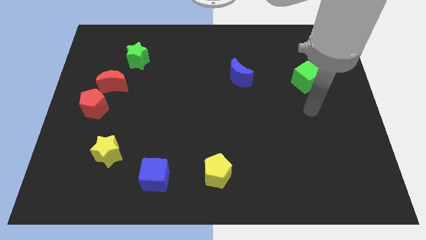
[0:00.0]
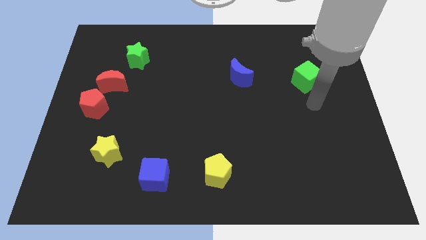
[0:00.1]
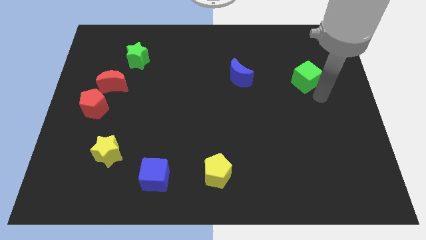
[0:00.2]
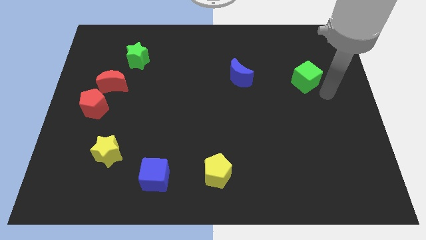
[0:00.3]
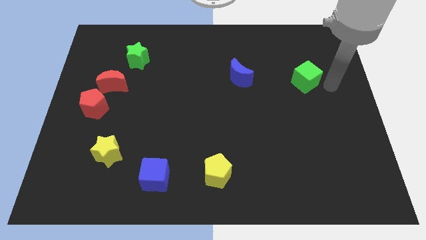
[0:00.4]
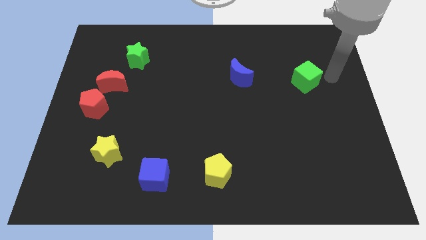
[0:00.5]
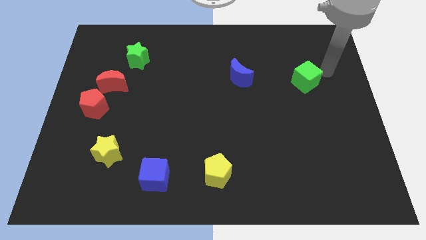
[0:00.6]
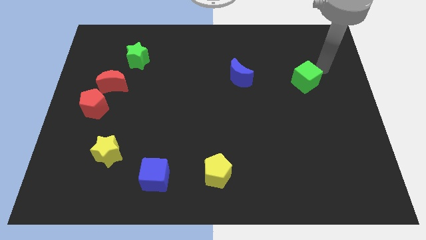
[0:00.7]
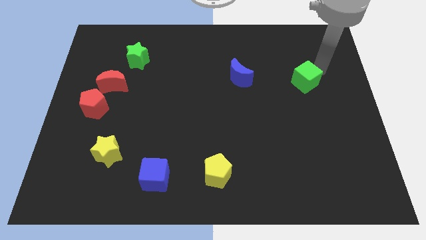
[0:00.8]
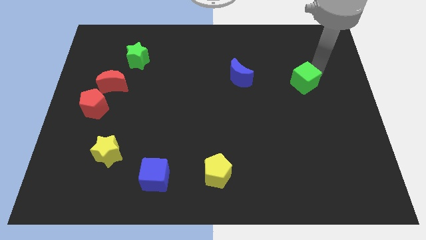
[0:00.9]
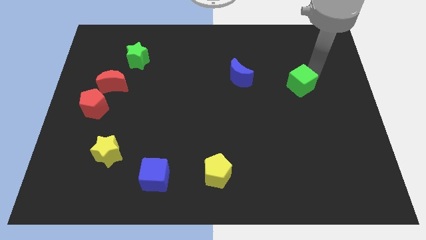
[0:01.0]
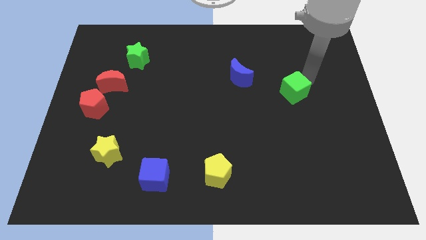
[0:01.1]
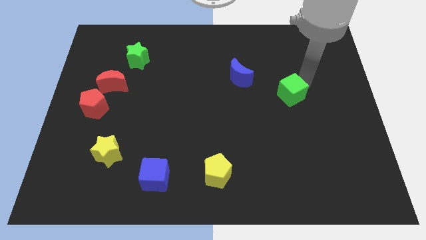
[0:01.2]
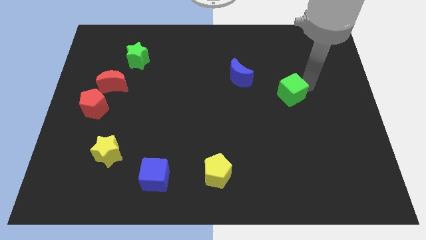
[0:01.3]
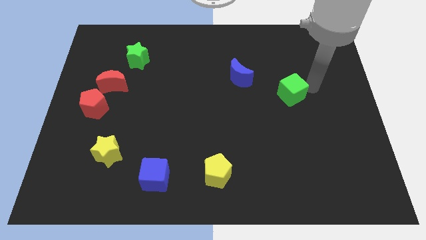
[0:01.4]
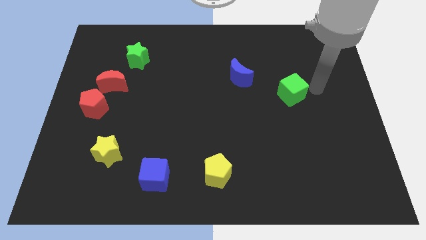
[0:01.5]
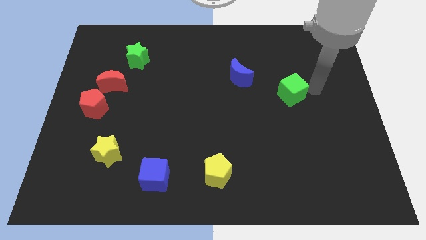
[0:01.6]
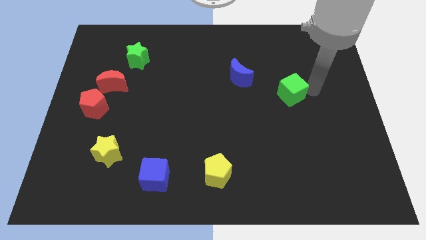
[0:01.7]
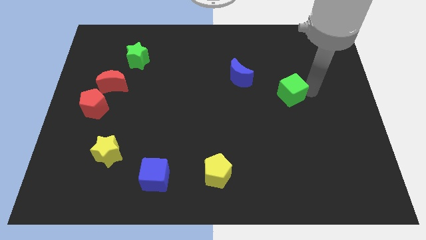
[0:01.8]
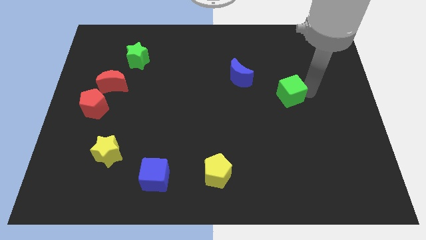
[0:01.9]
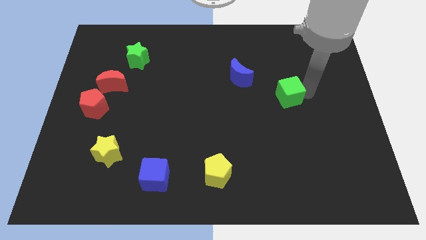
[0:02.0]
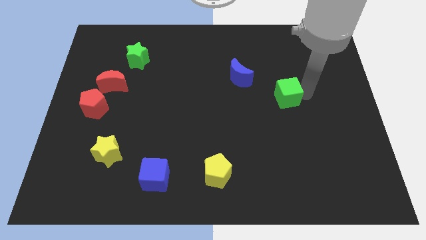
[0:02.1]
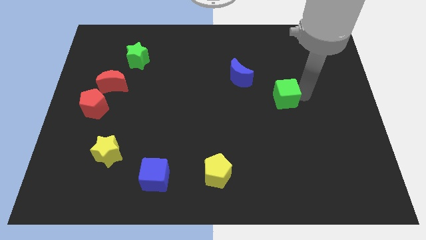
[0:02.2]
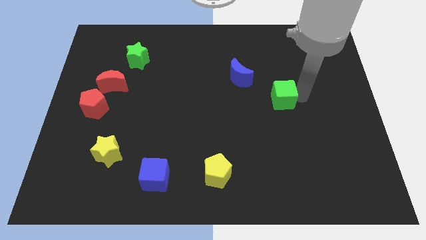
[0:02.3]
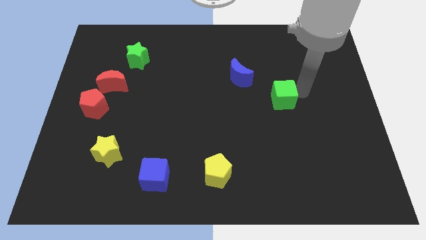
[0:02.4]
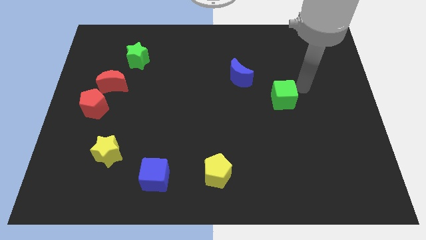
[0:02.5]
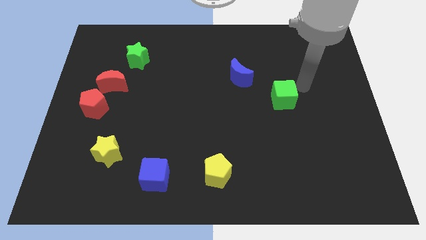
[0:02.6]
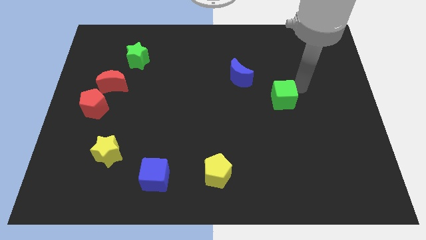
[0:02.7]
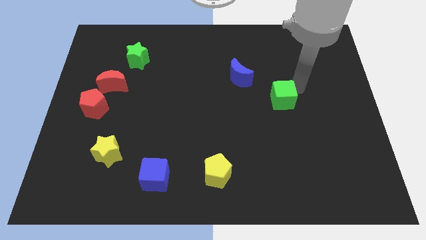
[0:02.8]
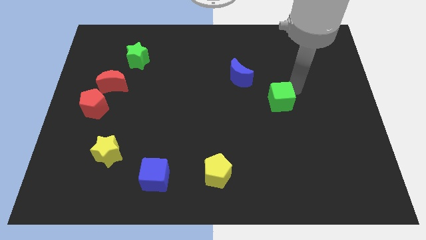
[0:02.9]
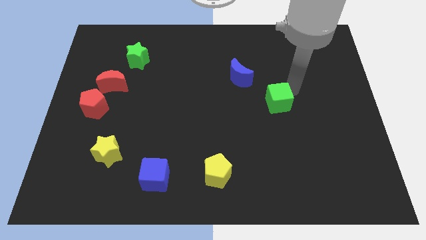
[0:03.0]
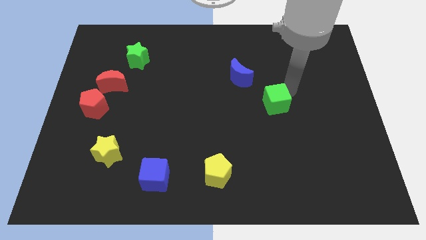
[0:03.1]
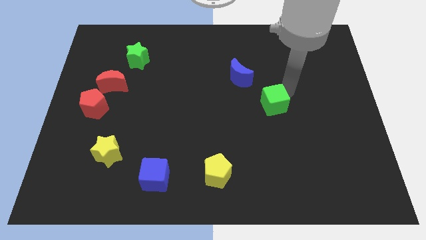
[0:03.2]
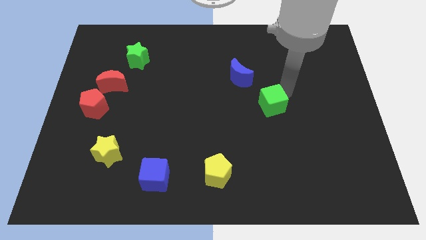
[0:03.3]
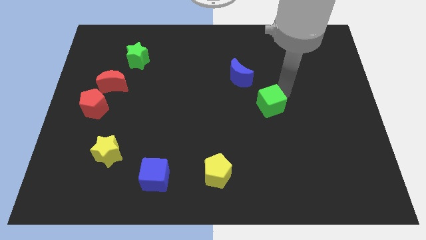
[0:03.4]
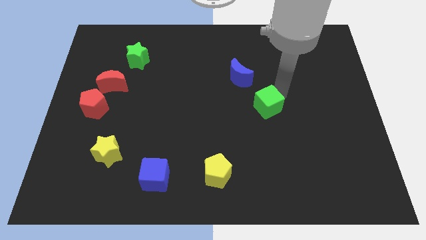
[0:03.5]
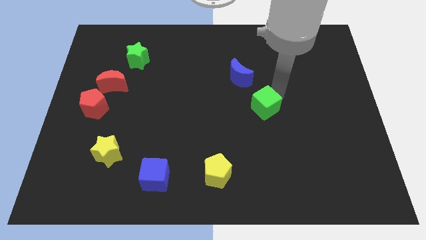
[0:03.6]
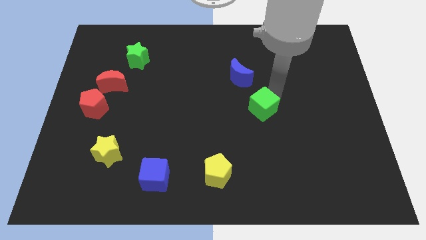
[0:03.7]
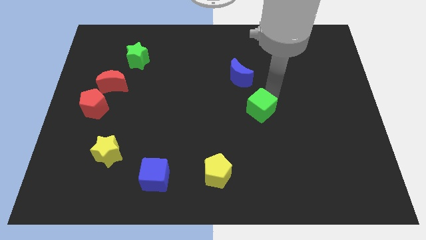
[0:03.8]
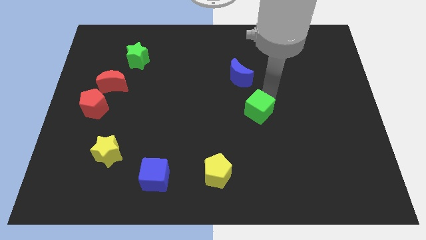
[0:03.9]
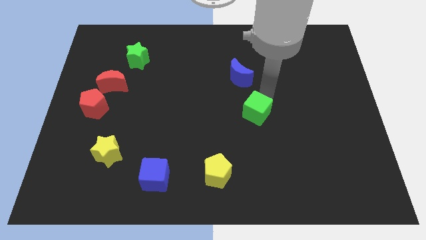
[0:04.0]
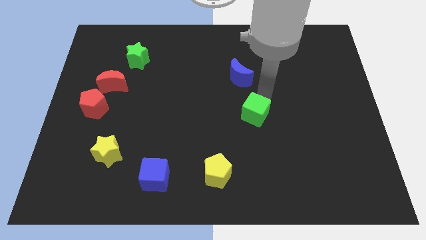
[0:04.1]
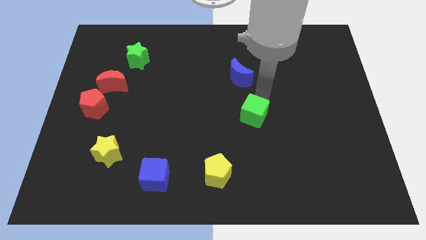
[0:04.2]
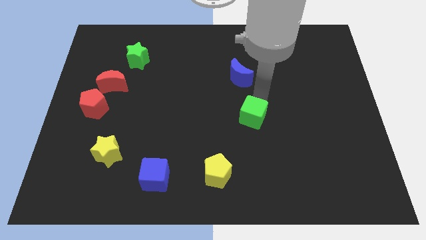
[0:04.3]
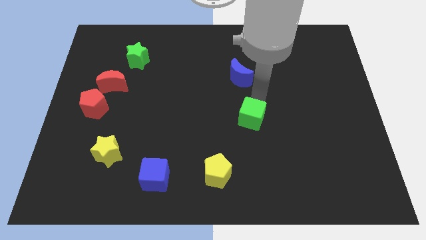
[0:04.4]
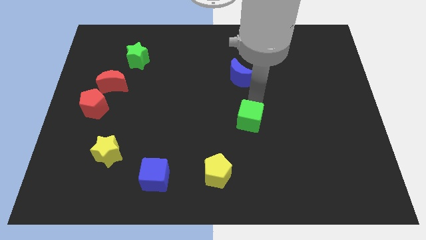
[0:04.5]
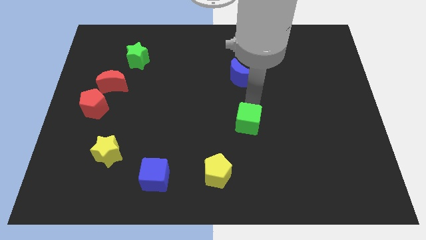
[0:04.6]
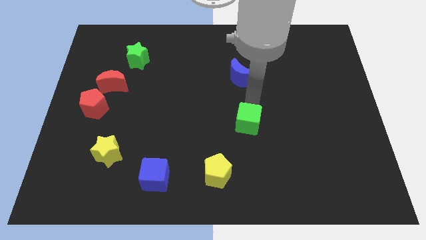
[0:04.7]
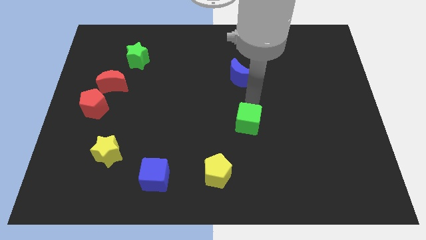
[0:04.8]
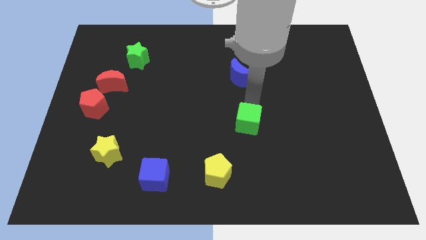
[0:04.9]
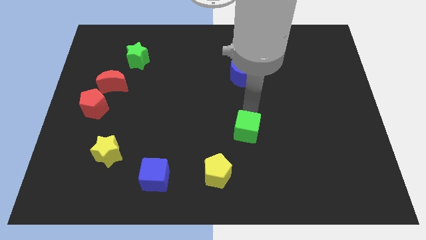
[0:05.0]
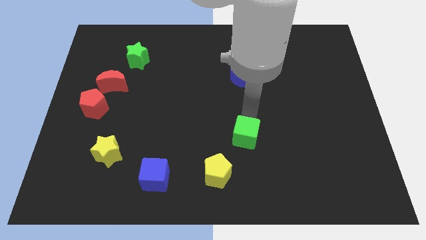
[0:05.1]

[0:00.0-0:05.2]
move the green cube to the top right of the yellow pentagon

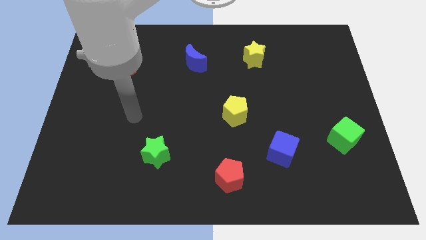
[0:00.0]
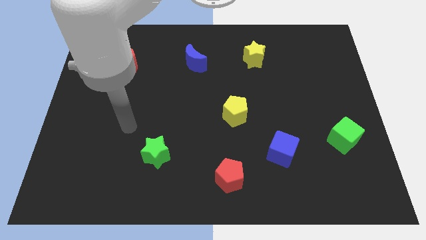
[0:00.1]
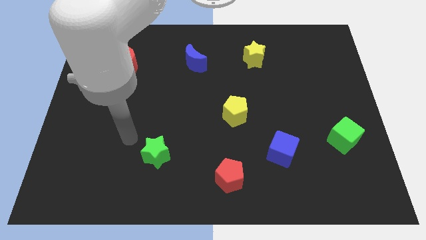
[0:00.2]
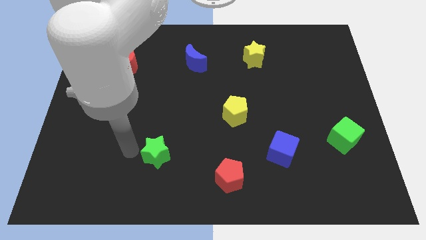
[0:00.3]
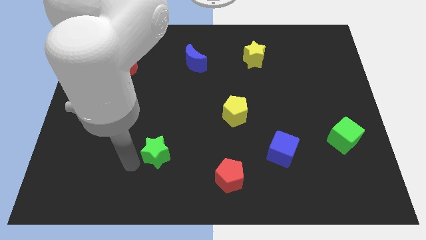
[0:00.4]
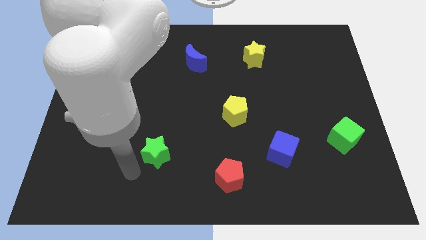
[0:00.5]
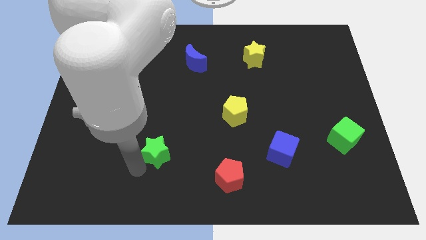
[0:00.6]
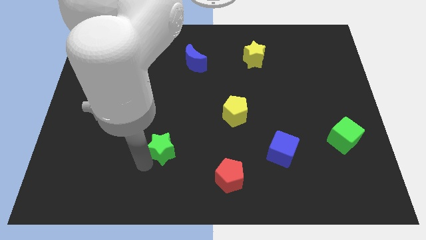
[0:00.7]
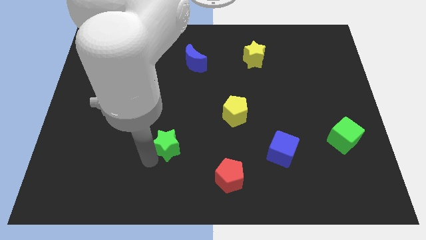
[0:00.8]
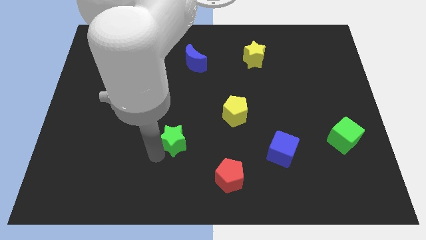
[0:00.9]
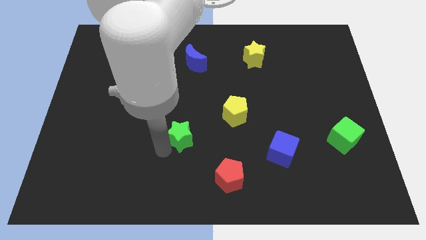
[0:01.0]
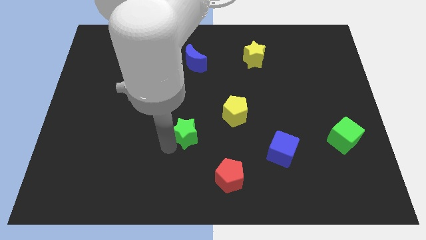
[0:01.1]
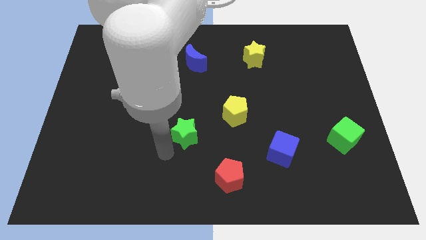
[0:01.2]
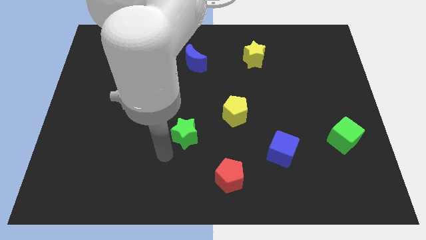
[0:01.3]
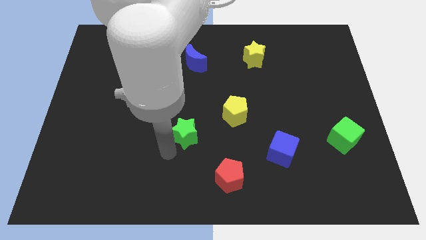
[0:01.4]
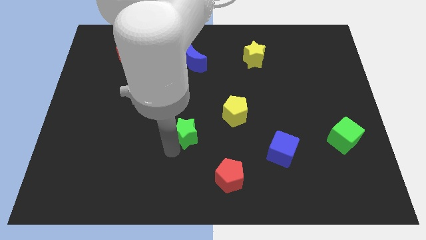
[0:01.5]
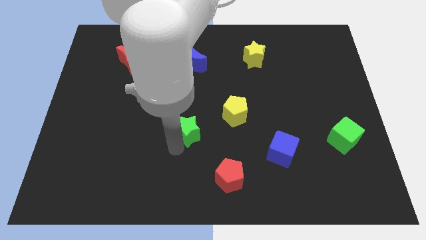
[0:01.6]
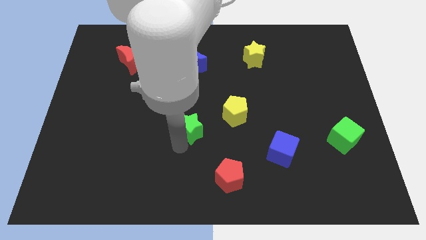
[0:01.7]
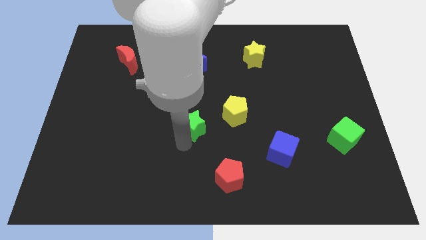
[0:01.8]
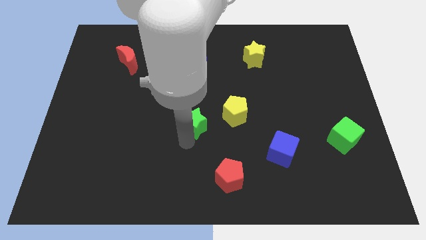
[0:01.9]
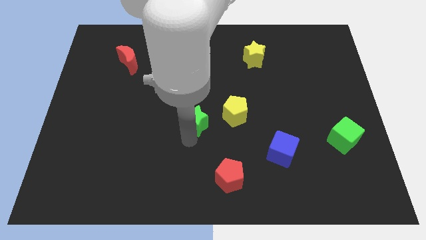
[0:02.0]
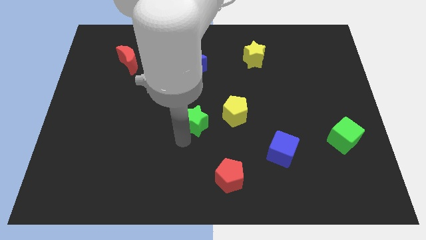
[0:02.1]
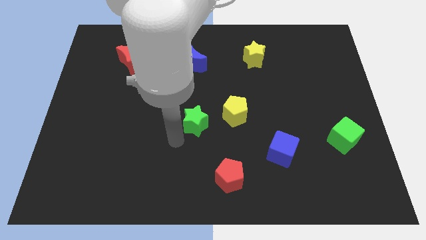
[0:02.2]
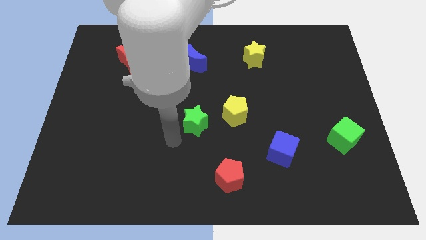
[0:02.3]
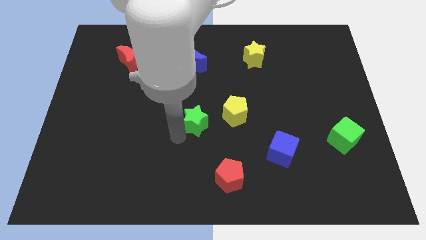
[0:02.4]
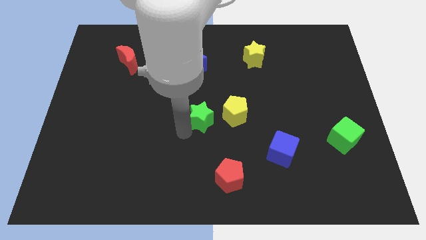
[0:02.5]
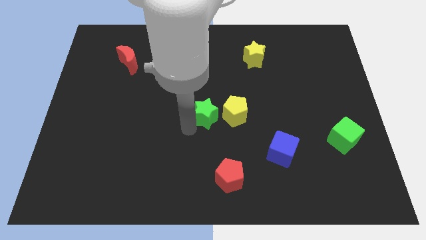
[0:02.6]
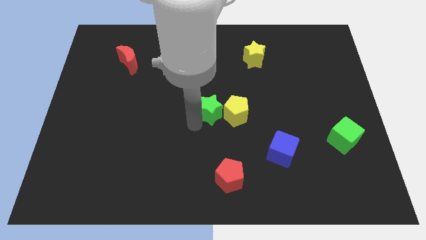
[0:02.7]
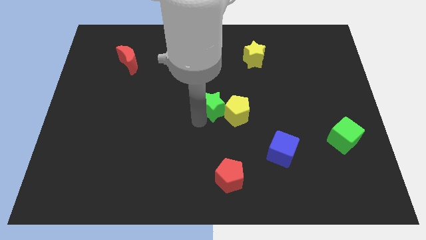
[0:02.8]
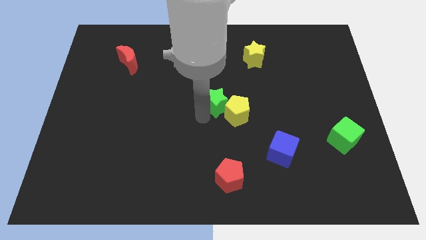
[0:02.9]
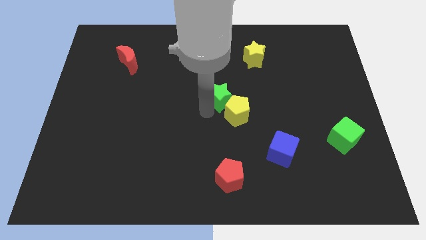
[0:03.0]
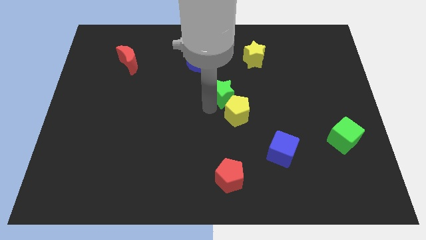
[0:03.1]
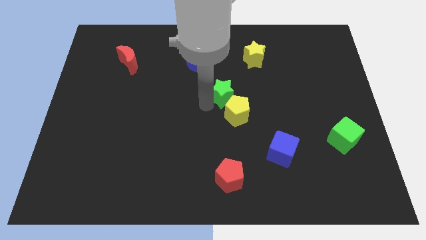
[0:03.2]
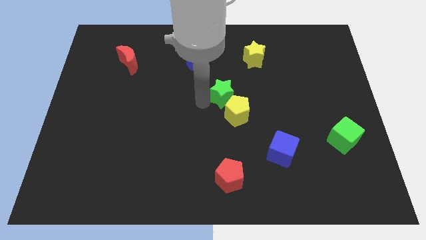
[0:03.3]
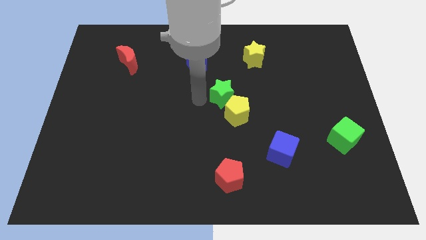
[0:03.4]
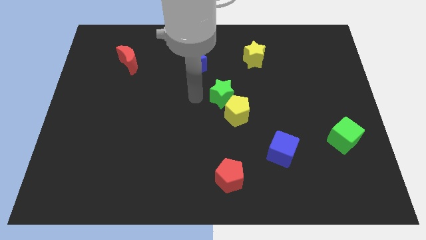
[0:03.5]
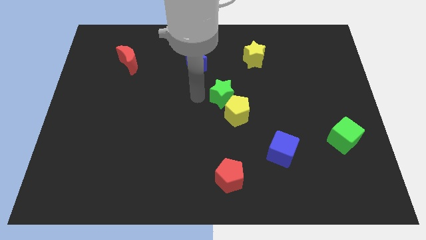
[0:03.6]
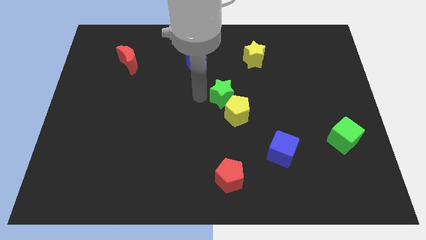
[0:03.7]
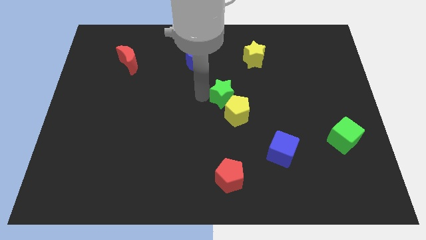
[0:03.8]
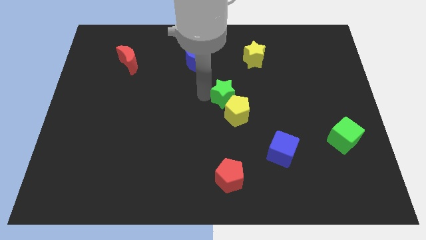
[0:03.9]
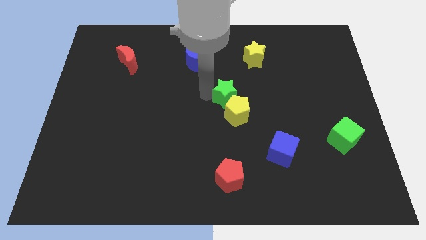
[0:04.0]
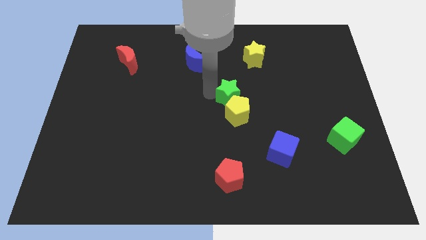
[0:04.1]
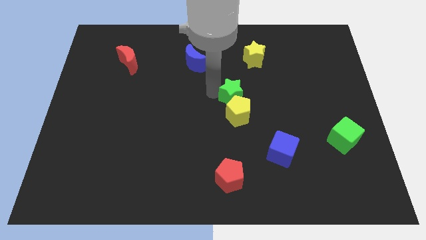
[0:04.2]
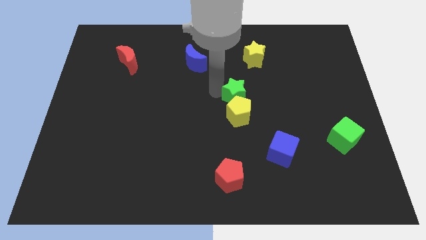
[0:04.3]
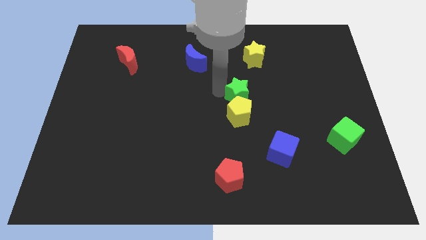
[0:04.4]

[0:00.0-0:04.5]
put the green star to the bottom of the yellow star
